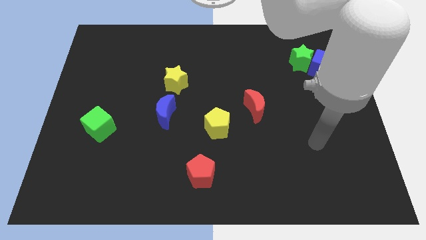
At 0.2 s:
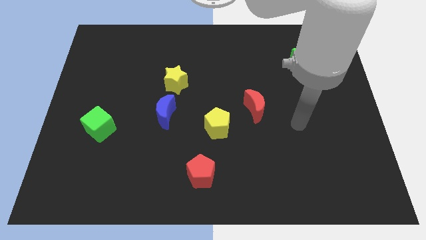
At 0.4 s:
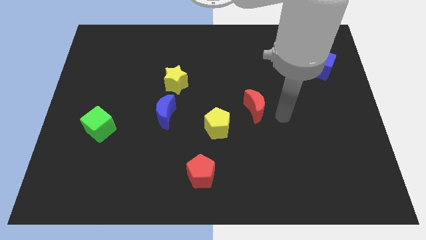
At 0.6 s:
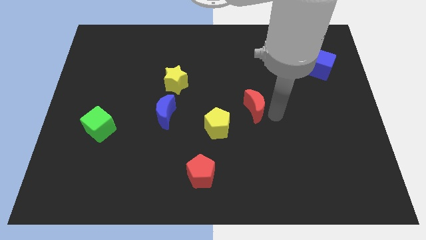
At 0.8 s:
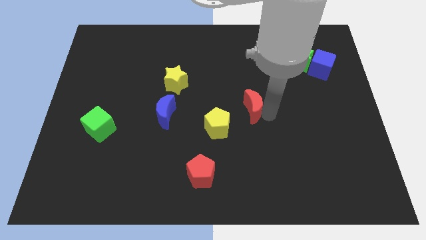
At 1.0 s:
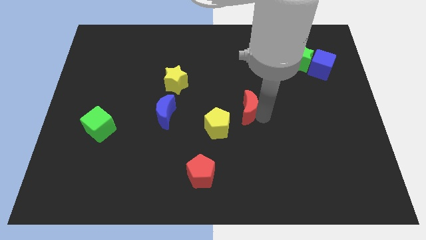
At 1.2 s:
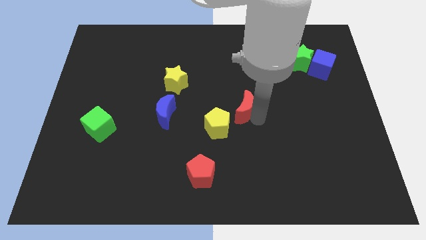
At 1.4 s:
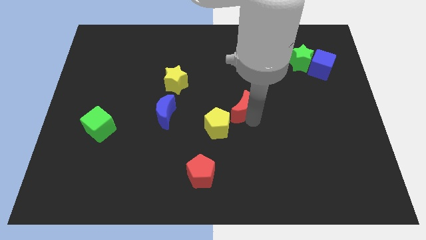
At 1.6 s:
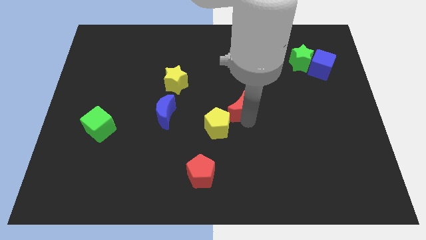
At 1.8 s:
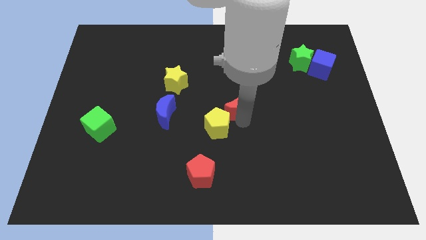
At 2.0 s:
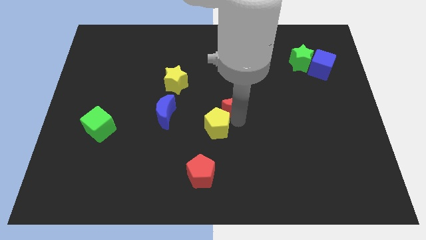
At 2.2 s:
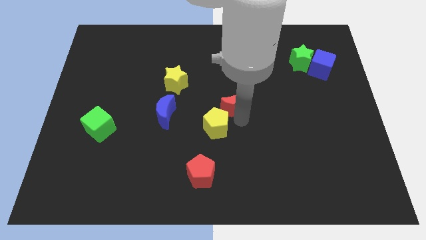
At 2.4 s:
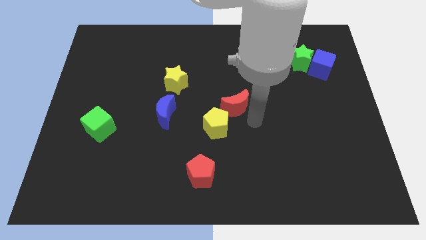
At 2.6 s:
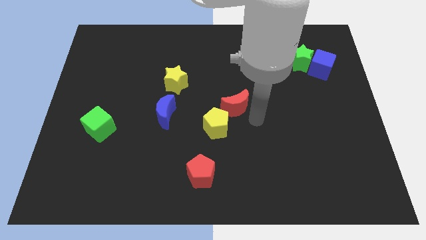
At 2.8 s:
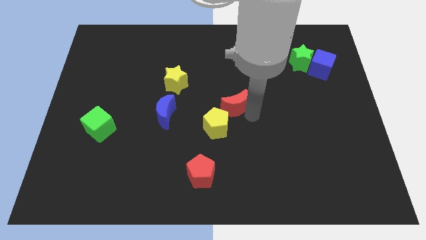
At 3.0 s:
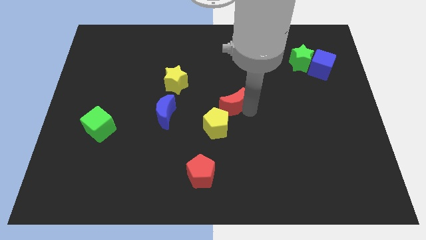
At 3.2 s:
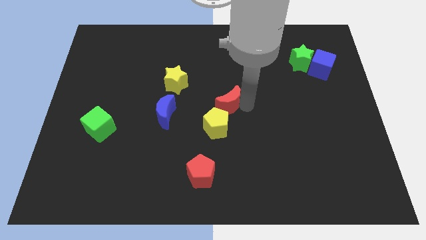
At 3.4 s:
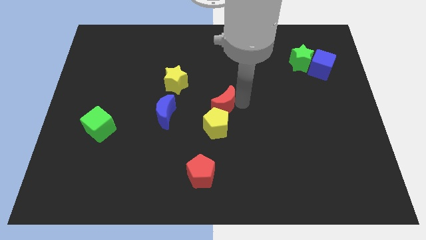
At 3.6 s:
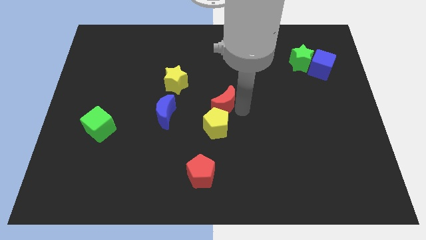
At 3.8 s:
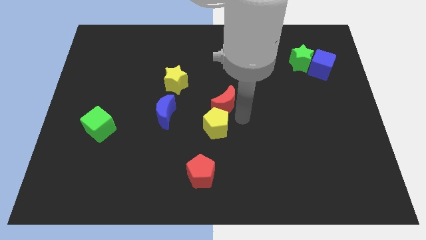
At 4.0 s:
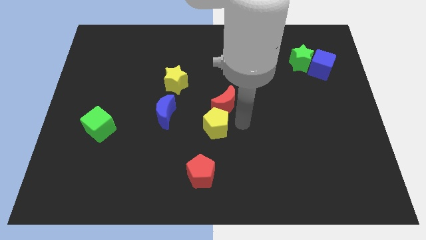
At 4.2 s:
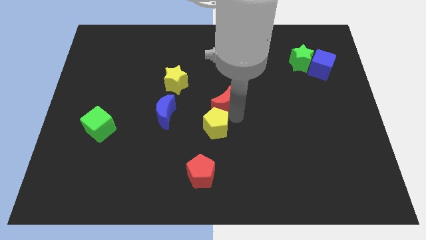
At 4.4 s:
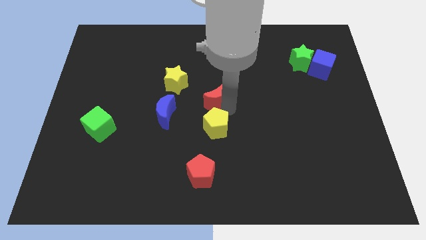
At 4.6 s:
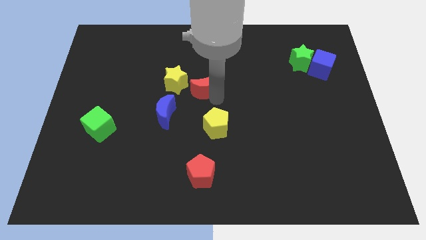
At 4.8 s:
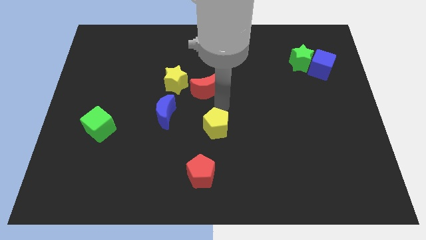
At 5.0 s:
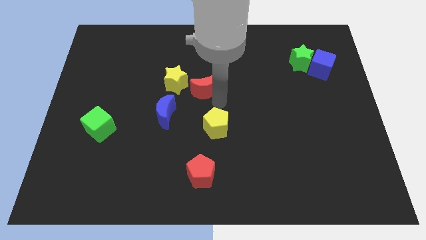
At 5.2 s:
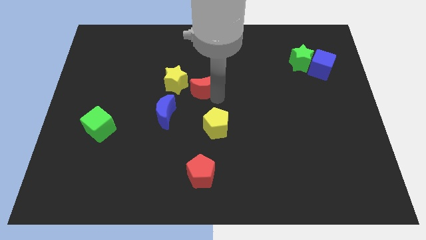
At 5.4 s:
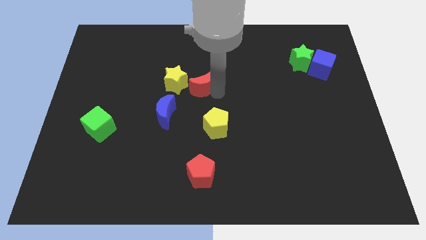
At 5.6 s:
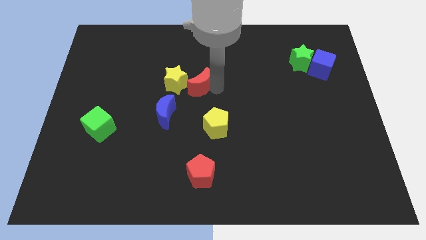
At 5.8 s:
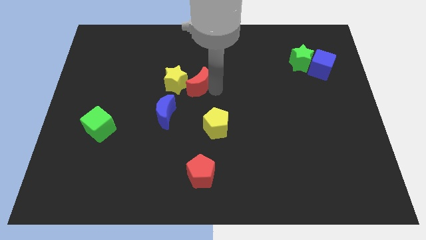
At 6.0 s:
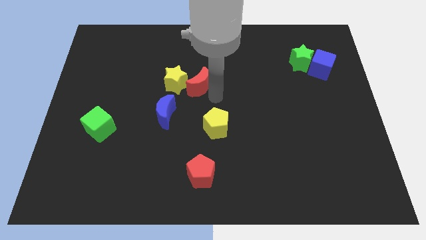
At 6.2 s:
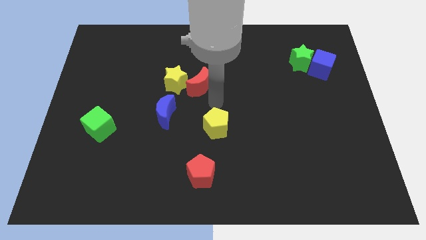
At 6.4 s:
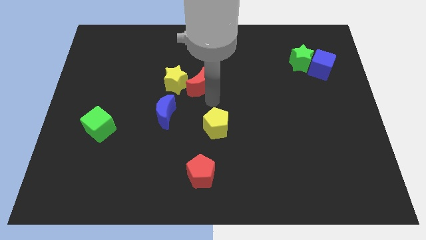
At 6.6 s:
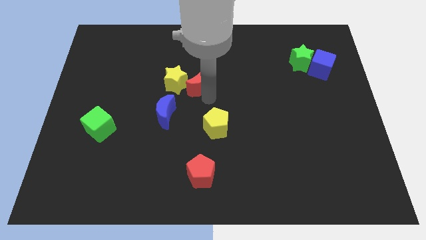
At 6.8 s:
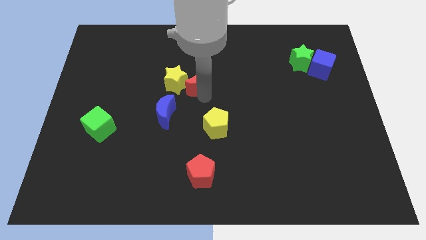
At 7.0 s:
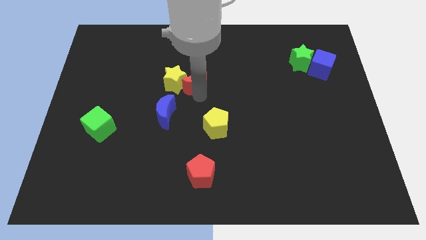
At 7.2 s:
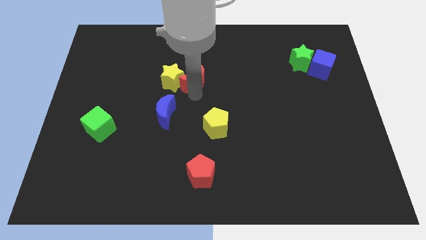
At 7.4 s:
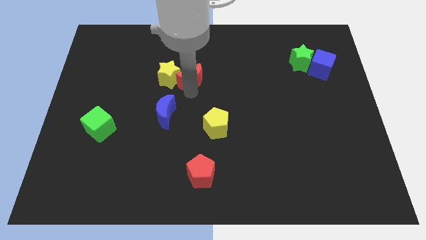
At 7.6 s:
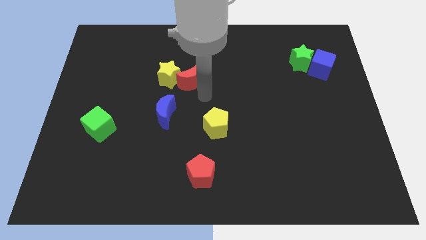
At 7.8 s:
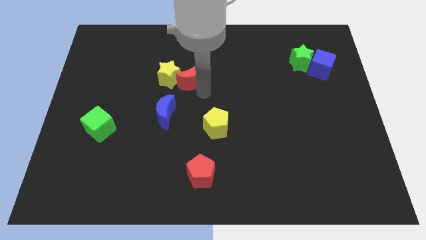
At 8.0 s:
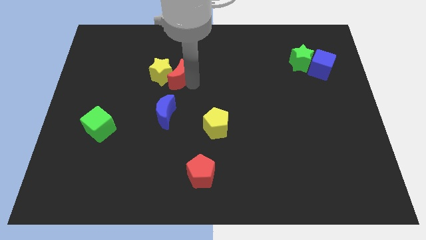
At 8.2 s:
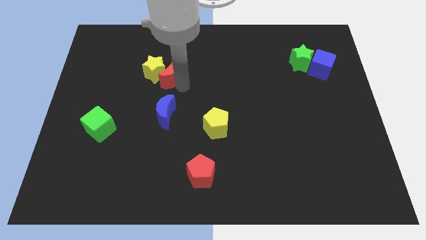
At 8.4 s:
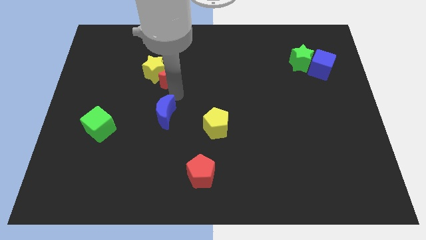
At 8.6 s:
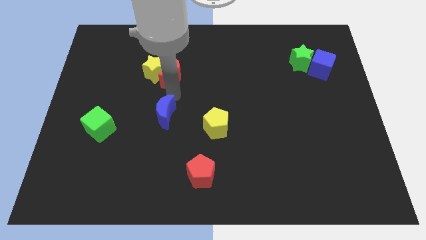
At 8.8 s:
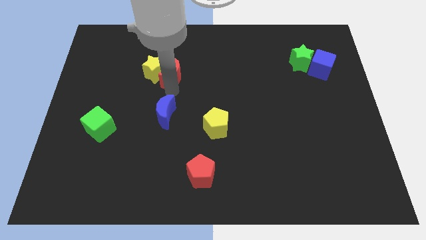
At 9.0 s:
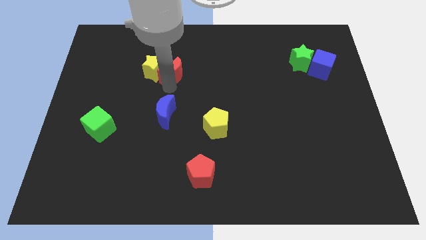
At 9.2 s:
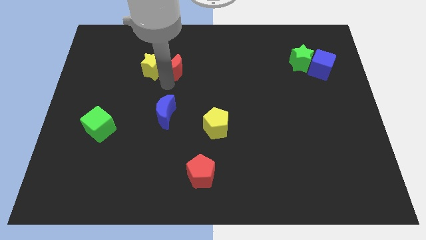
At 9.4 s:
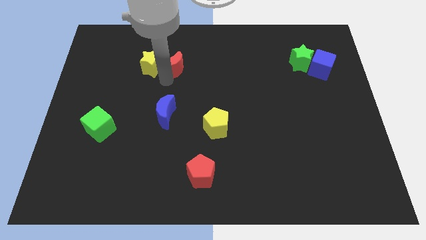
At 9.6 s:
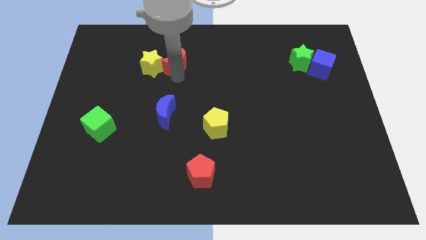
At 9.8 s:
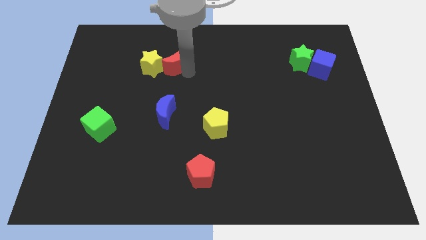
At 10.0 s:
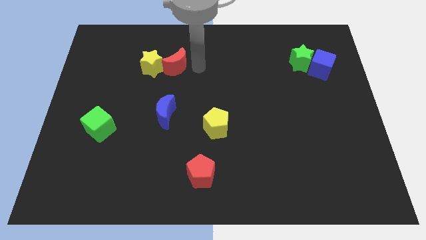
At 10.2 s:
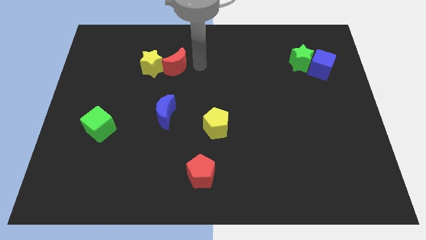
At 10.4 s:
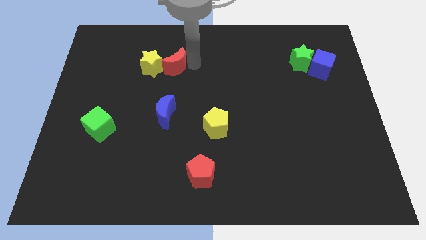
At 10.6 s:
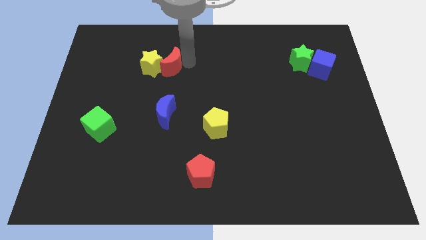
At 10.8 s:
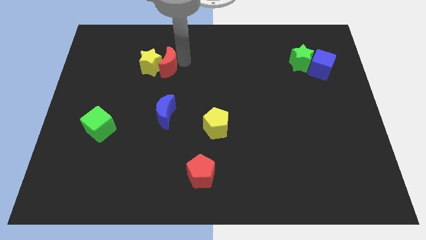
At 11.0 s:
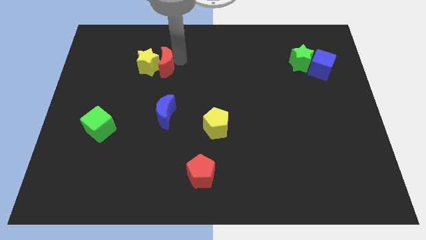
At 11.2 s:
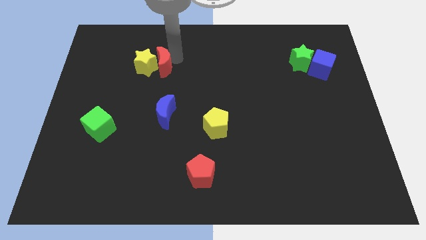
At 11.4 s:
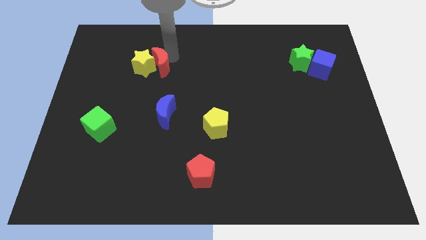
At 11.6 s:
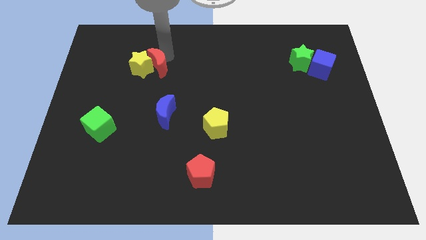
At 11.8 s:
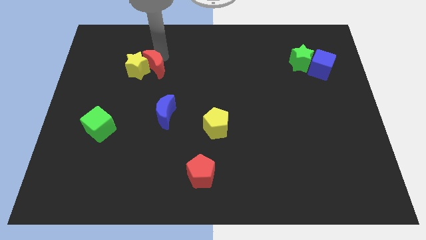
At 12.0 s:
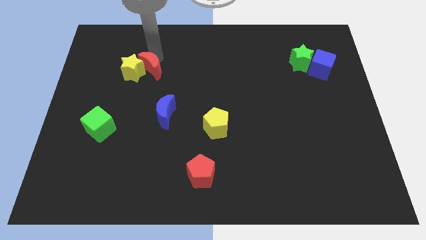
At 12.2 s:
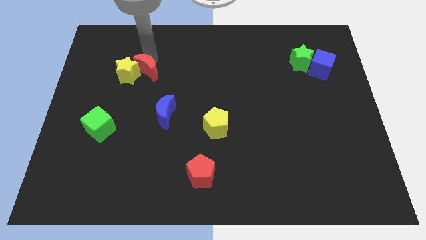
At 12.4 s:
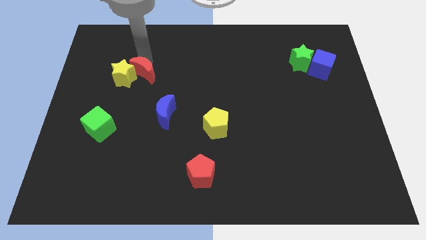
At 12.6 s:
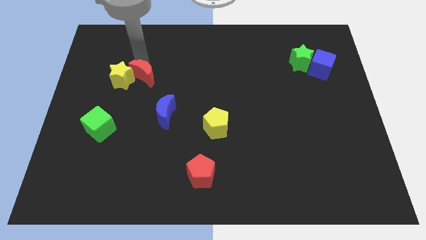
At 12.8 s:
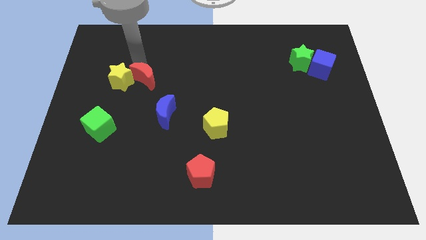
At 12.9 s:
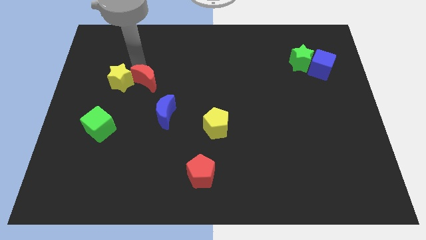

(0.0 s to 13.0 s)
slide the red moon diagonally up and to the left of the blue moon

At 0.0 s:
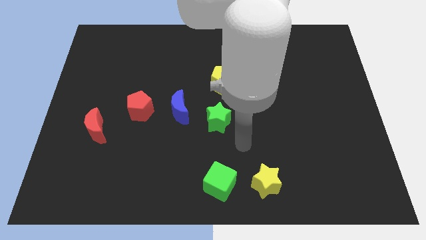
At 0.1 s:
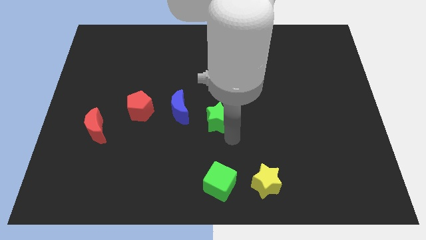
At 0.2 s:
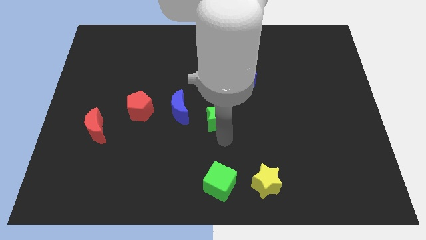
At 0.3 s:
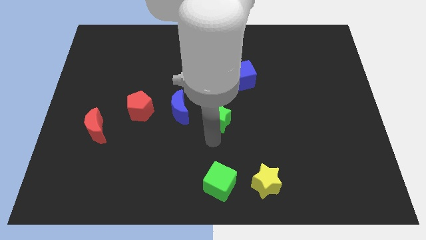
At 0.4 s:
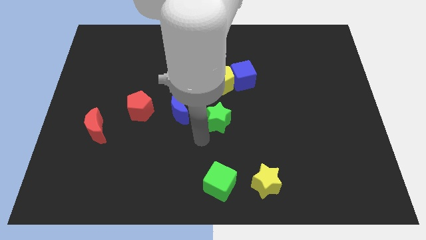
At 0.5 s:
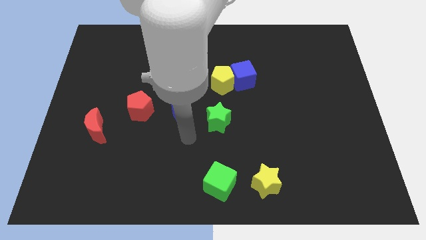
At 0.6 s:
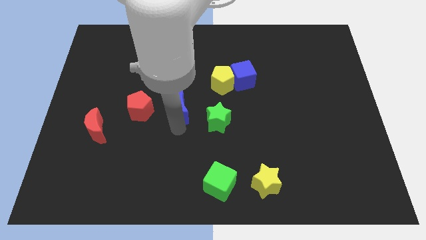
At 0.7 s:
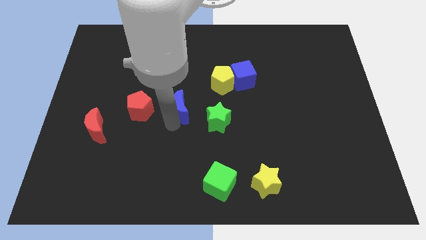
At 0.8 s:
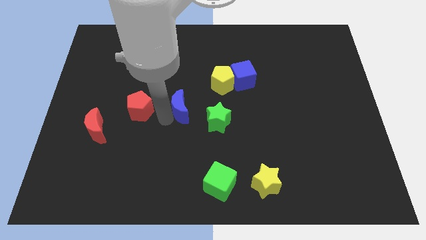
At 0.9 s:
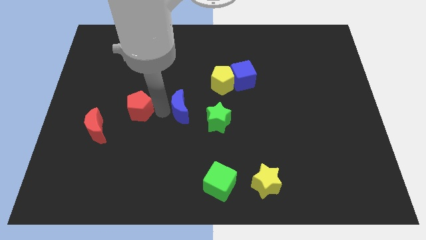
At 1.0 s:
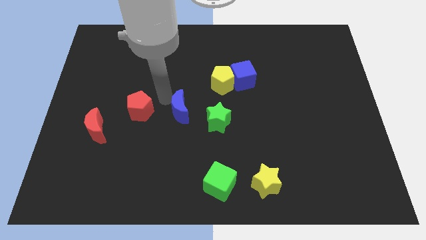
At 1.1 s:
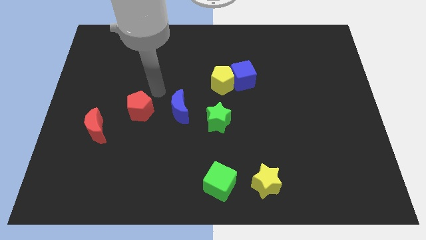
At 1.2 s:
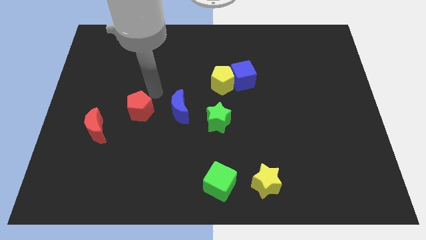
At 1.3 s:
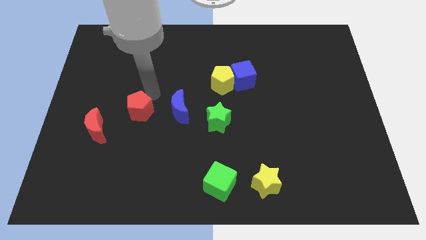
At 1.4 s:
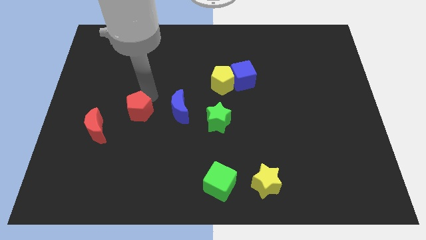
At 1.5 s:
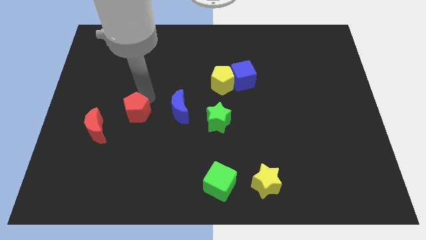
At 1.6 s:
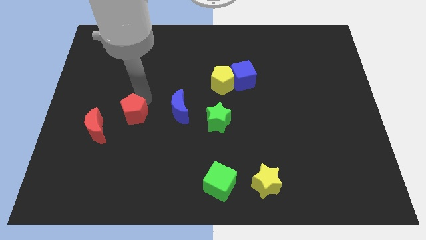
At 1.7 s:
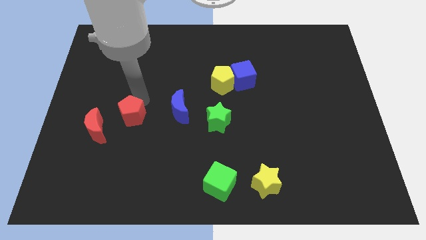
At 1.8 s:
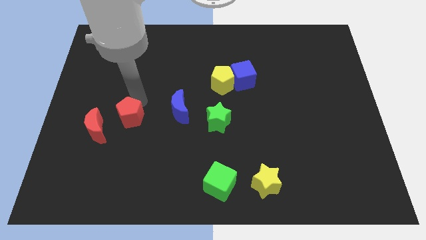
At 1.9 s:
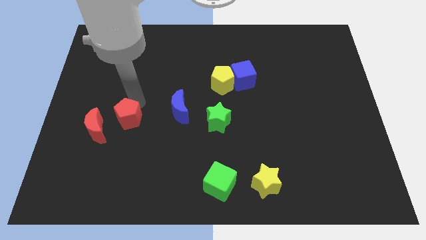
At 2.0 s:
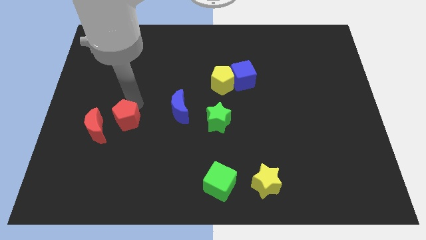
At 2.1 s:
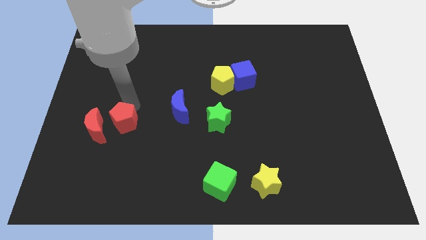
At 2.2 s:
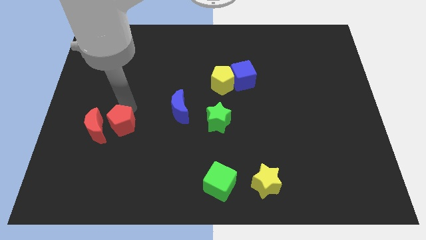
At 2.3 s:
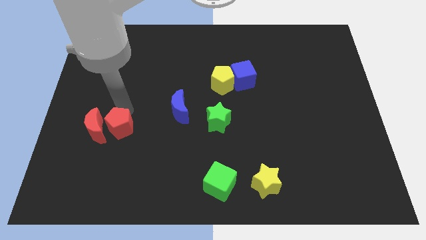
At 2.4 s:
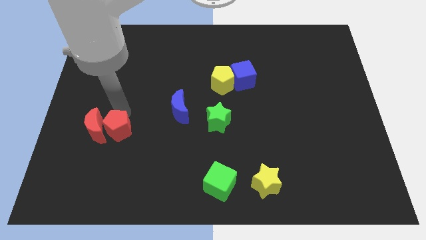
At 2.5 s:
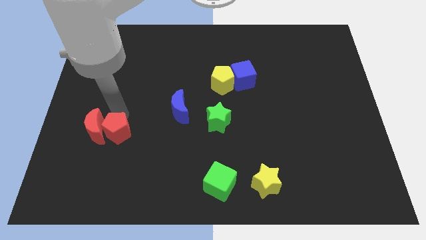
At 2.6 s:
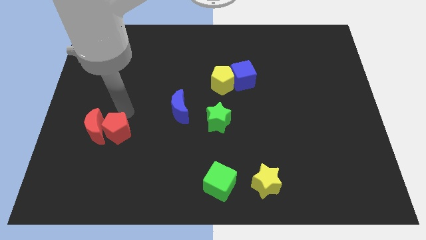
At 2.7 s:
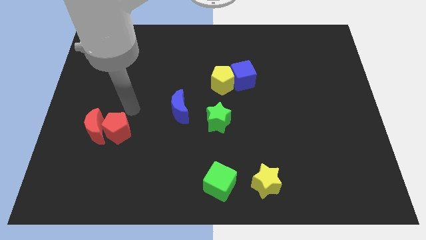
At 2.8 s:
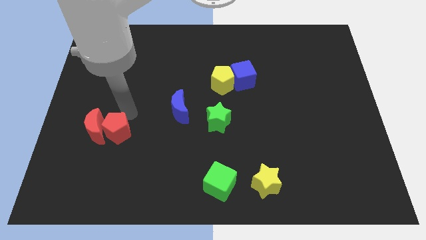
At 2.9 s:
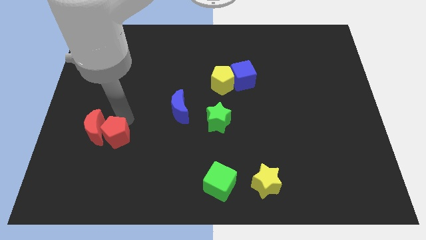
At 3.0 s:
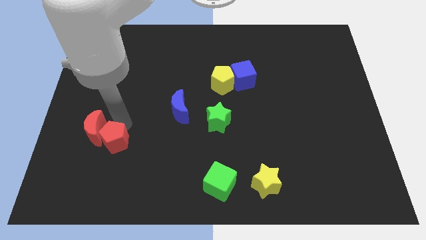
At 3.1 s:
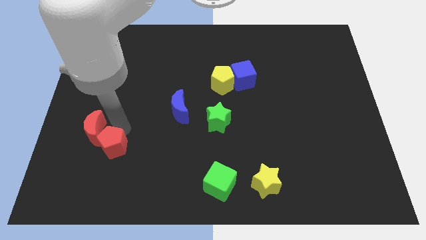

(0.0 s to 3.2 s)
move the red pentagon to the bottom side of the red moon
